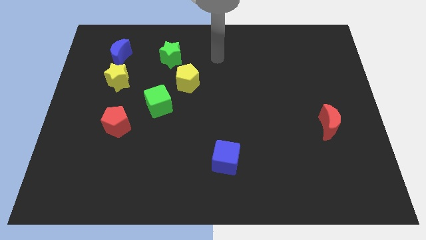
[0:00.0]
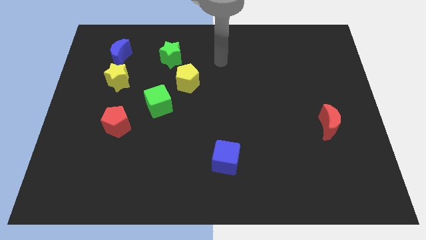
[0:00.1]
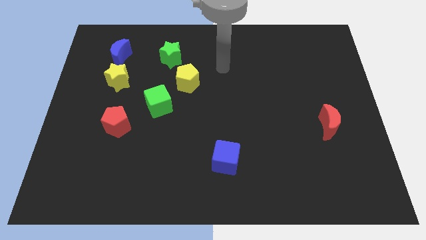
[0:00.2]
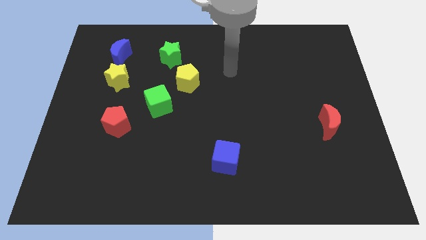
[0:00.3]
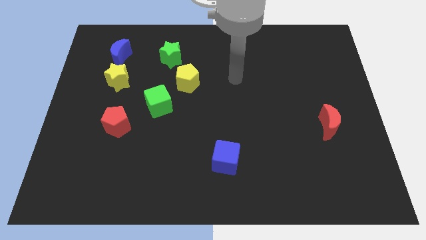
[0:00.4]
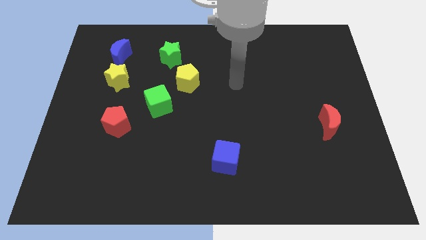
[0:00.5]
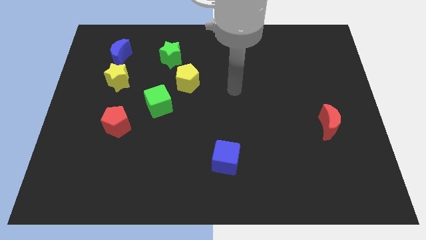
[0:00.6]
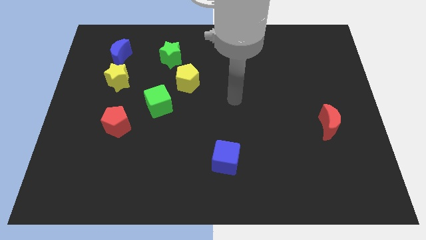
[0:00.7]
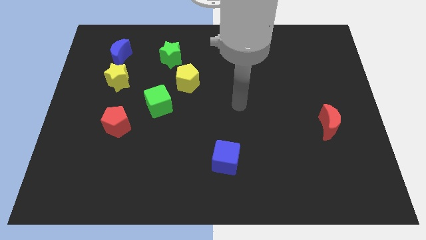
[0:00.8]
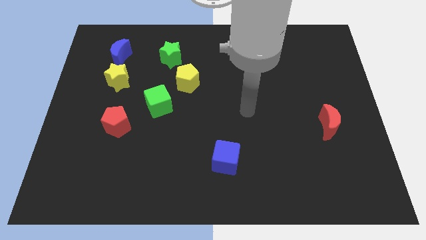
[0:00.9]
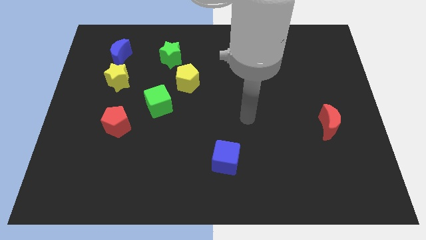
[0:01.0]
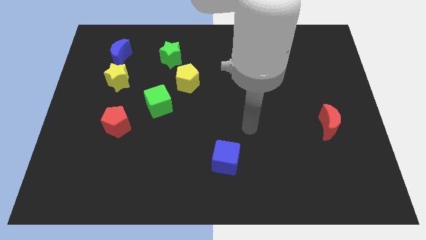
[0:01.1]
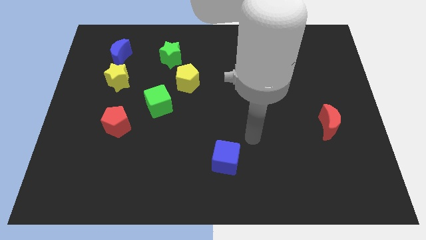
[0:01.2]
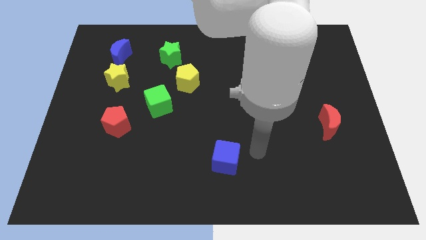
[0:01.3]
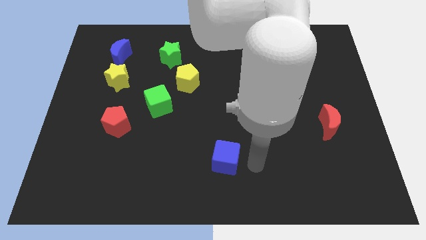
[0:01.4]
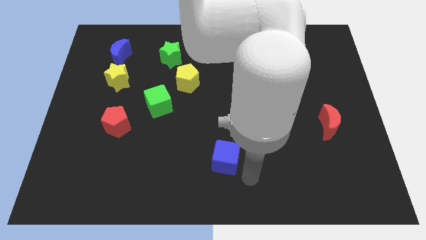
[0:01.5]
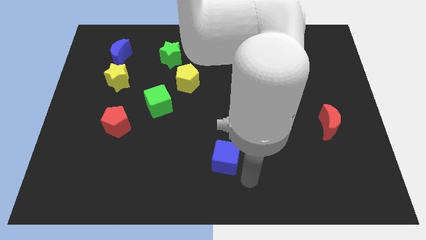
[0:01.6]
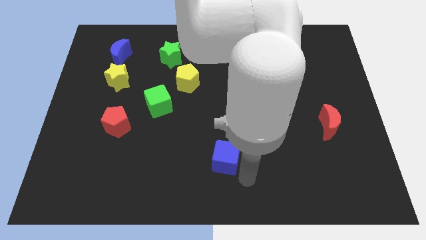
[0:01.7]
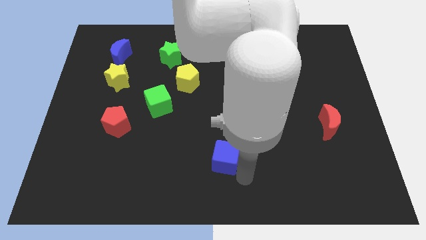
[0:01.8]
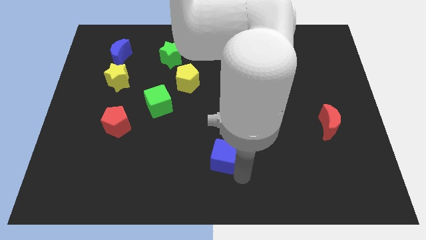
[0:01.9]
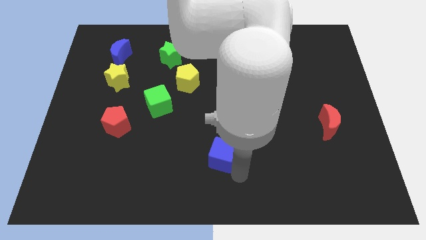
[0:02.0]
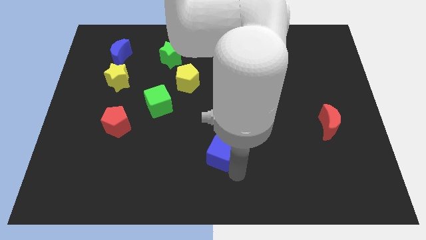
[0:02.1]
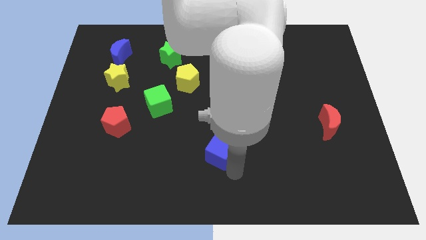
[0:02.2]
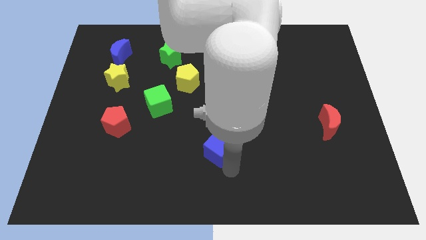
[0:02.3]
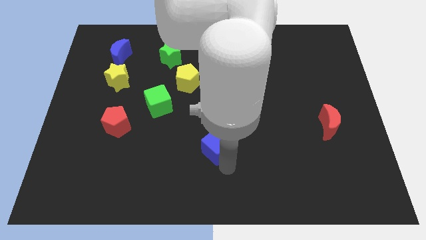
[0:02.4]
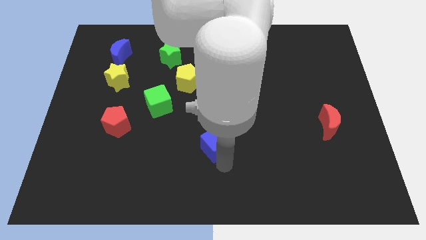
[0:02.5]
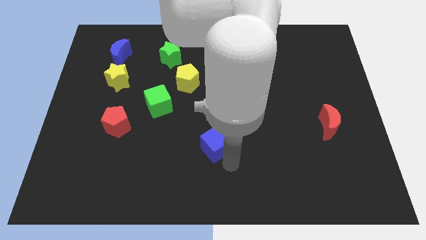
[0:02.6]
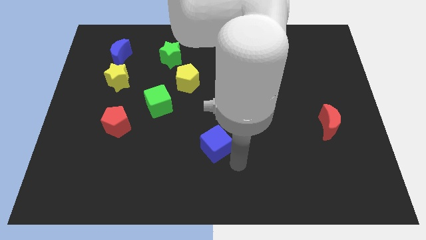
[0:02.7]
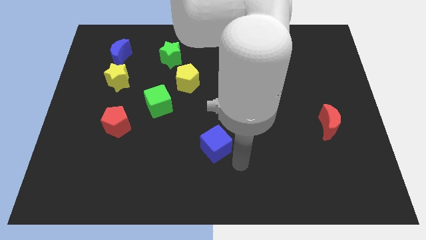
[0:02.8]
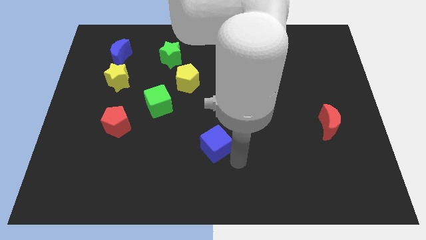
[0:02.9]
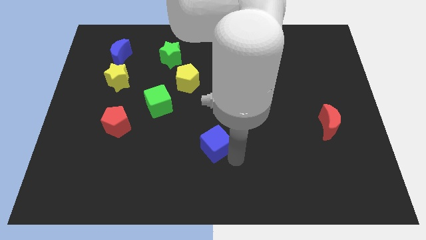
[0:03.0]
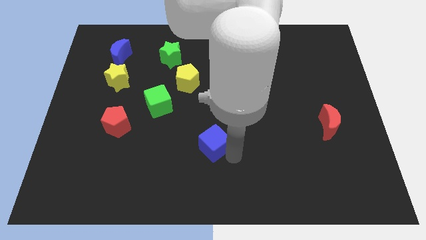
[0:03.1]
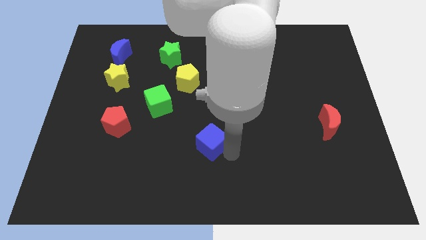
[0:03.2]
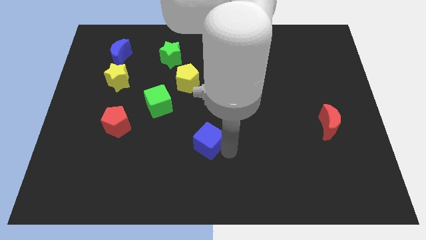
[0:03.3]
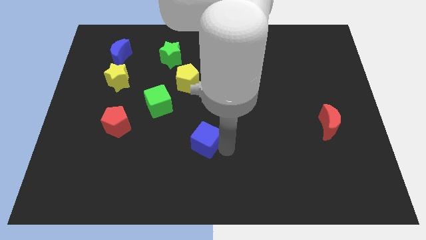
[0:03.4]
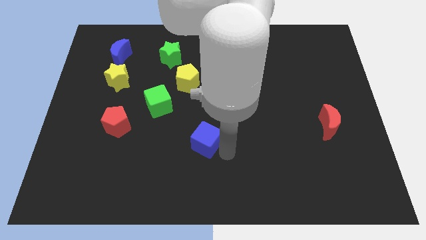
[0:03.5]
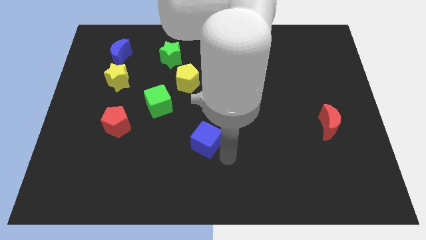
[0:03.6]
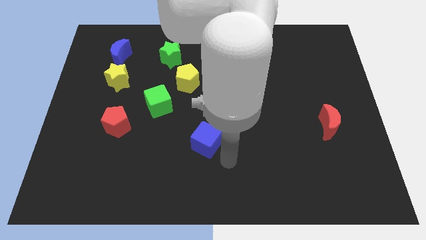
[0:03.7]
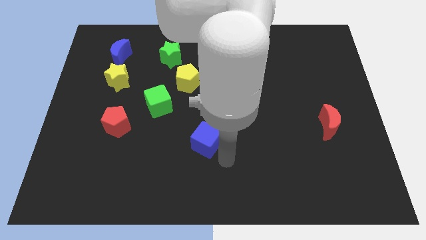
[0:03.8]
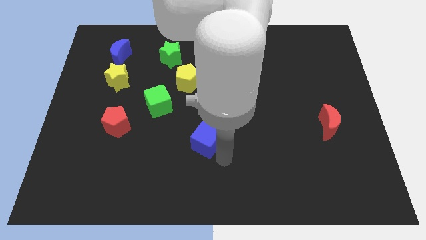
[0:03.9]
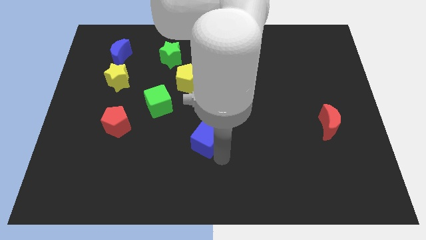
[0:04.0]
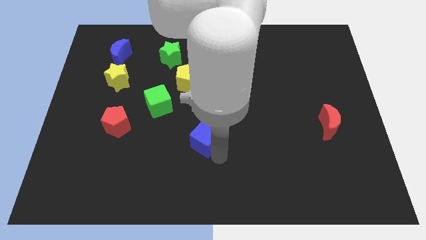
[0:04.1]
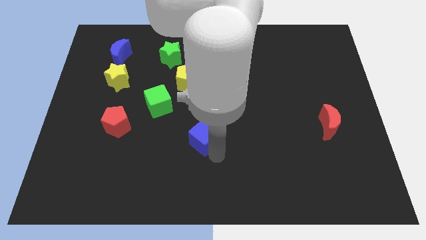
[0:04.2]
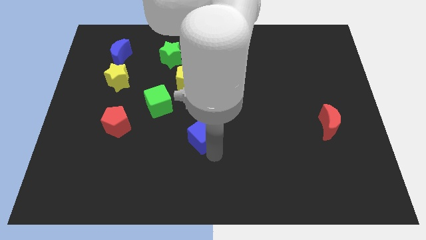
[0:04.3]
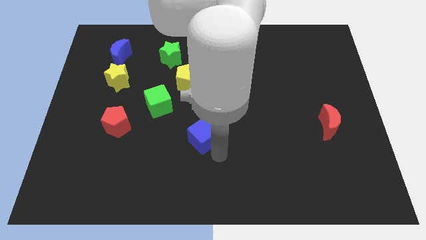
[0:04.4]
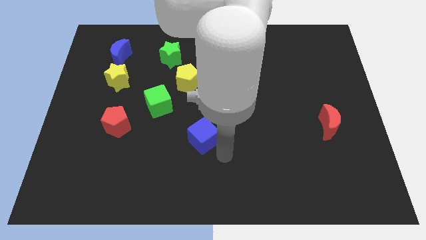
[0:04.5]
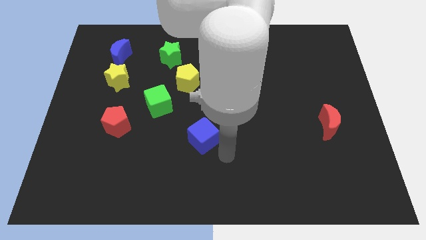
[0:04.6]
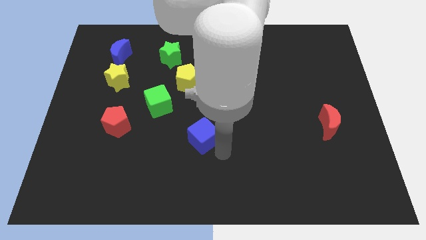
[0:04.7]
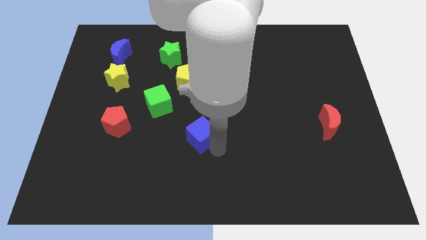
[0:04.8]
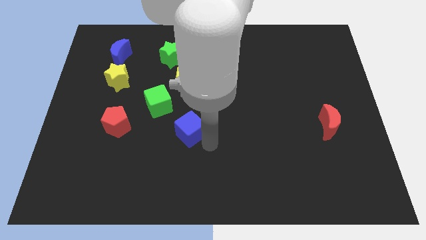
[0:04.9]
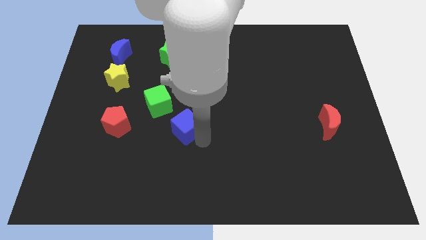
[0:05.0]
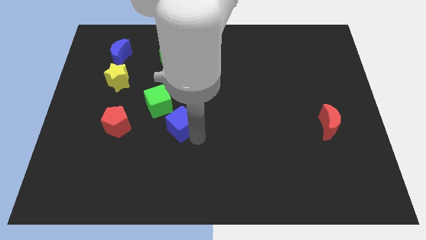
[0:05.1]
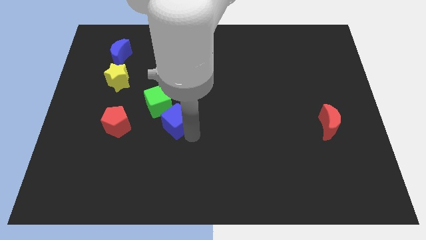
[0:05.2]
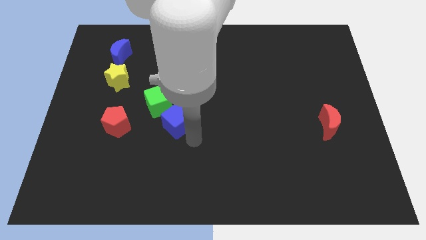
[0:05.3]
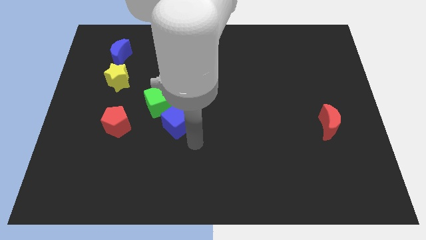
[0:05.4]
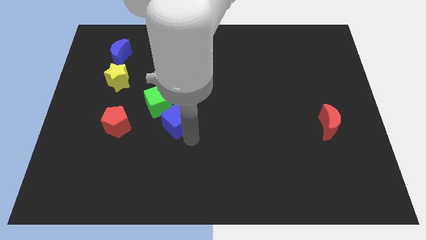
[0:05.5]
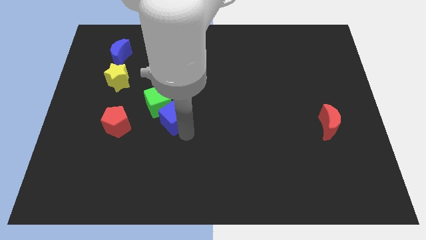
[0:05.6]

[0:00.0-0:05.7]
push the blue cube next to the green cube

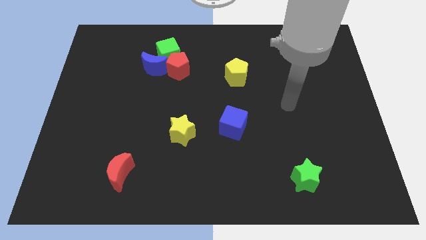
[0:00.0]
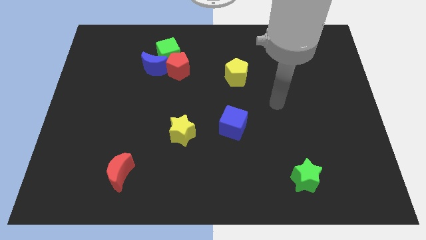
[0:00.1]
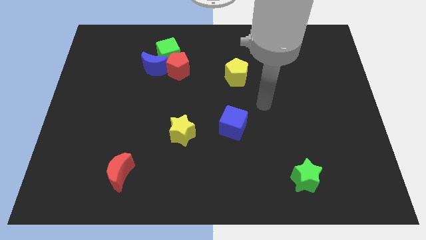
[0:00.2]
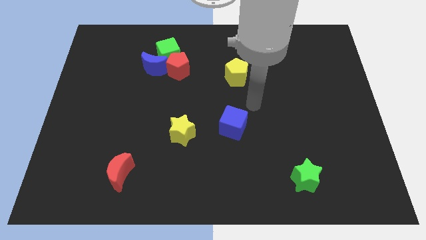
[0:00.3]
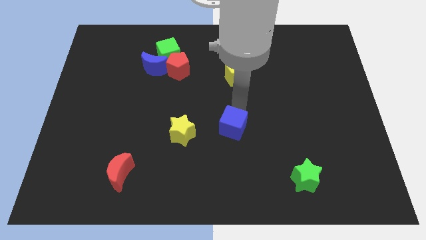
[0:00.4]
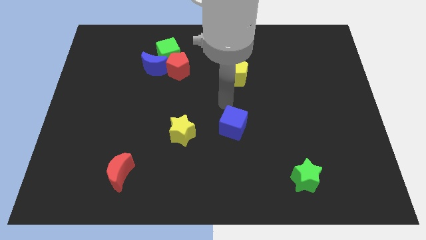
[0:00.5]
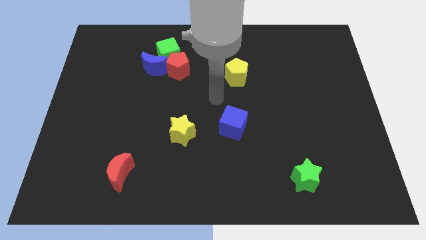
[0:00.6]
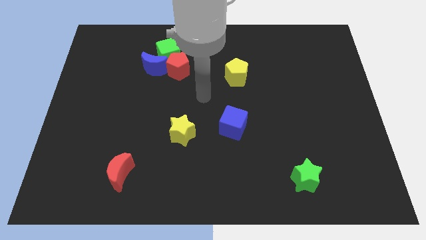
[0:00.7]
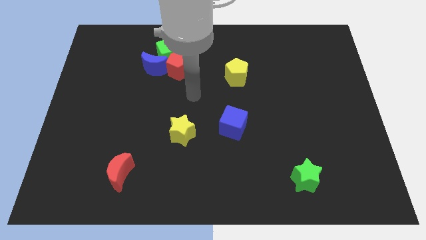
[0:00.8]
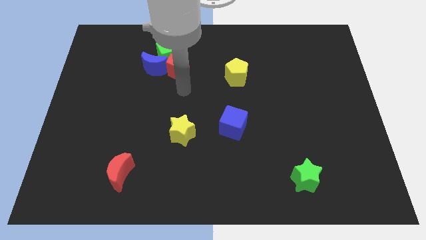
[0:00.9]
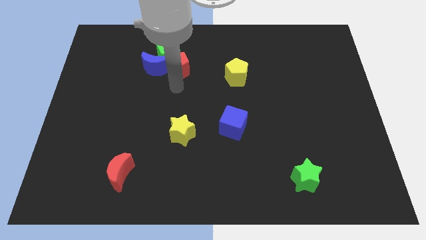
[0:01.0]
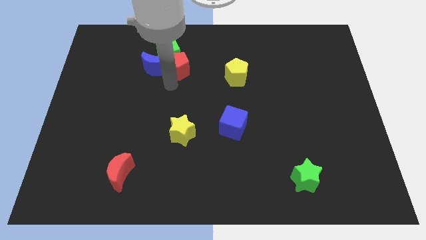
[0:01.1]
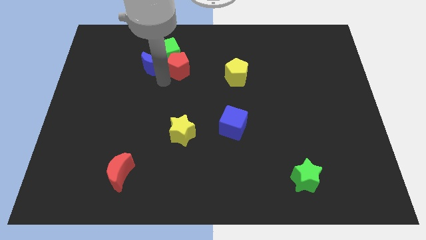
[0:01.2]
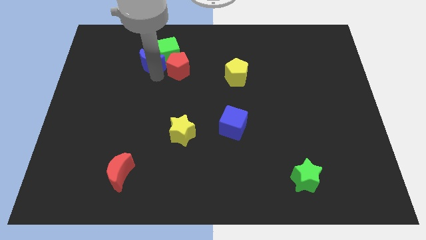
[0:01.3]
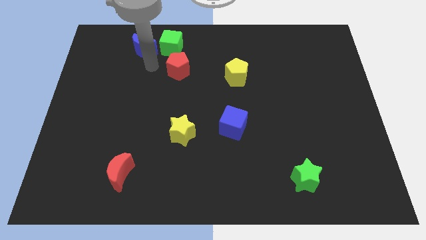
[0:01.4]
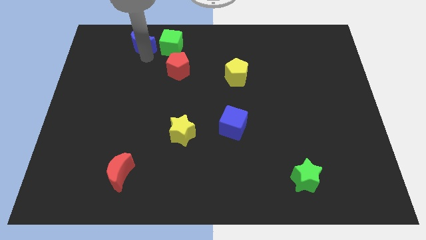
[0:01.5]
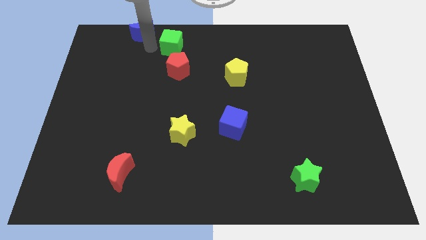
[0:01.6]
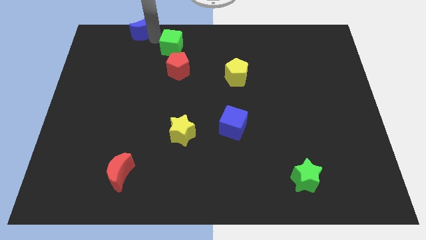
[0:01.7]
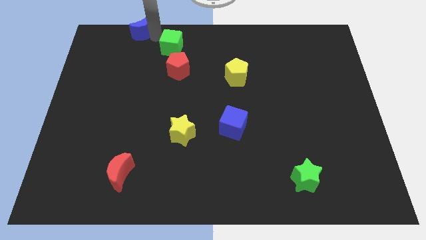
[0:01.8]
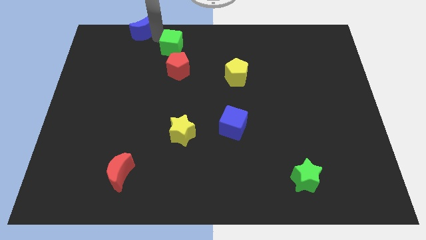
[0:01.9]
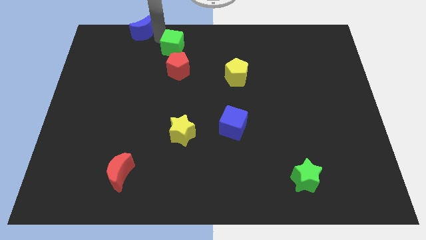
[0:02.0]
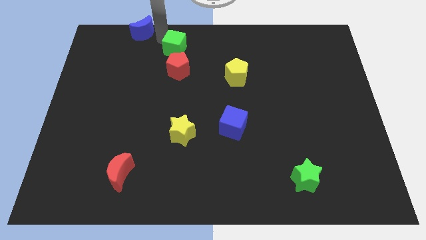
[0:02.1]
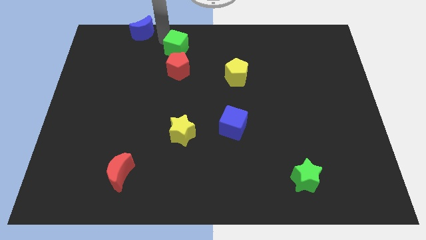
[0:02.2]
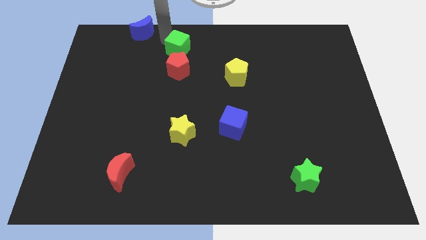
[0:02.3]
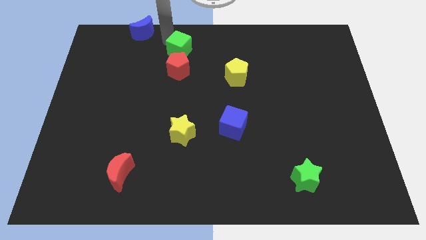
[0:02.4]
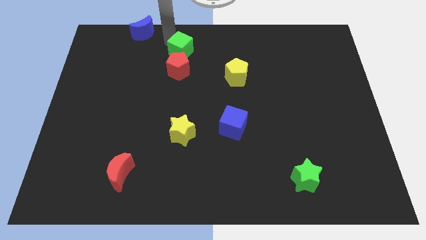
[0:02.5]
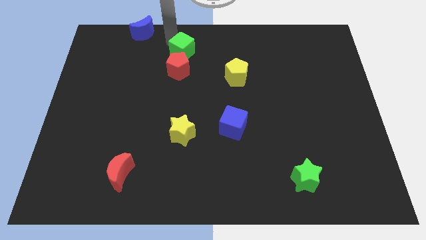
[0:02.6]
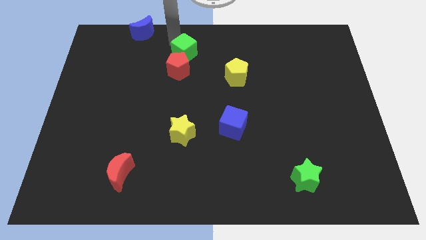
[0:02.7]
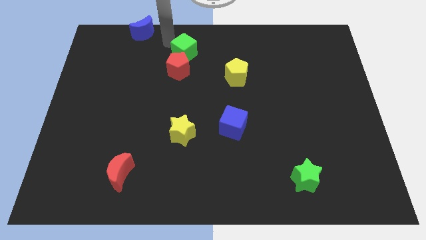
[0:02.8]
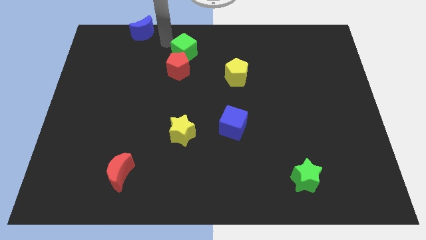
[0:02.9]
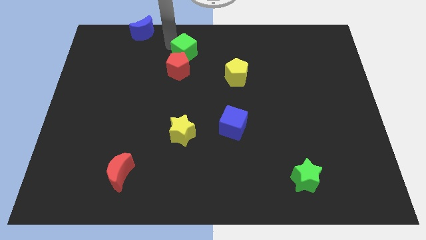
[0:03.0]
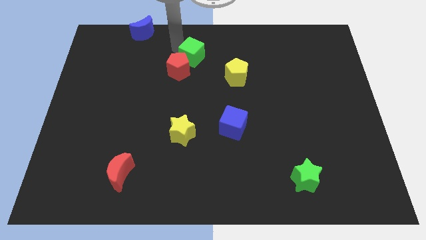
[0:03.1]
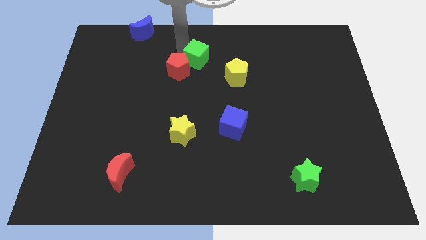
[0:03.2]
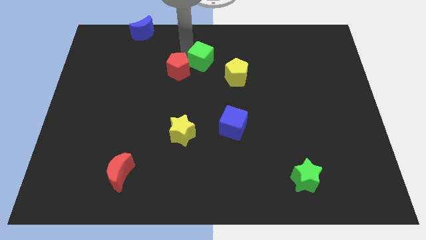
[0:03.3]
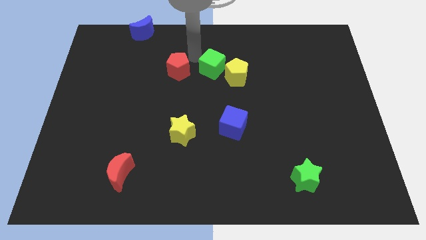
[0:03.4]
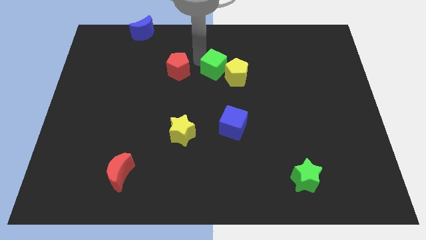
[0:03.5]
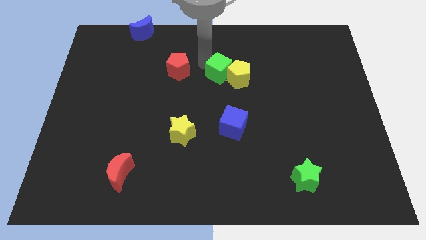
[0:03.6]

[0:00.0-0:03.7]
move the green cube to the yellow pentagon
